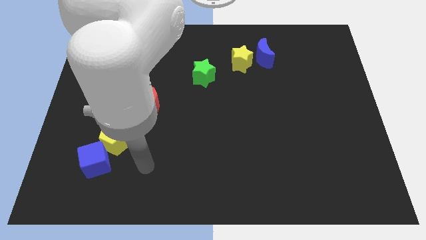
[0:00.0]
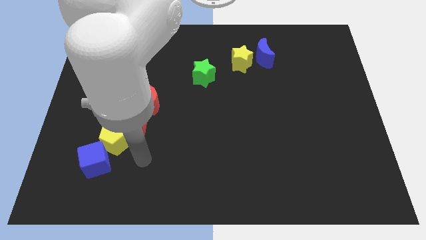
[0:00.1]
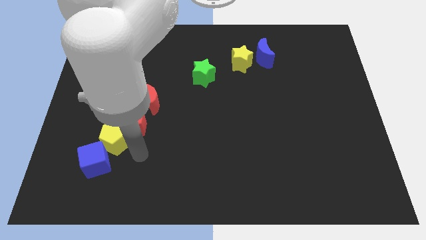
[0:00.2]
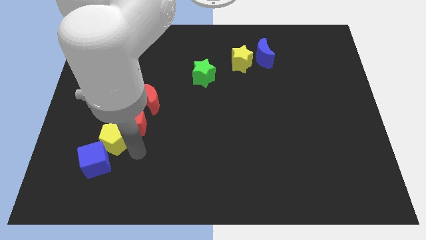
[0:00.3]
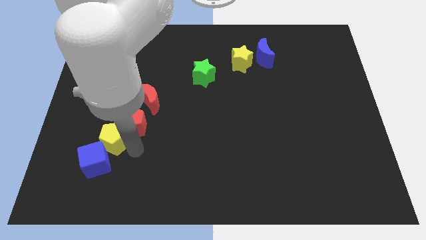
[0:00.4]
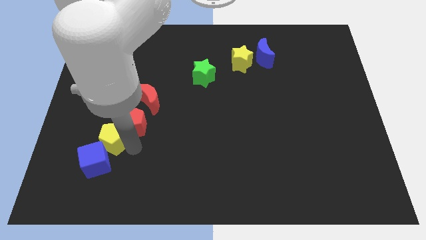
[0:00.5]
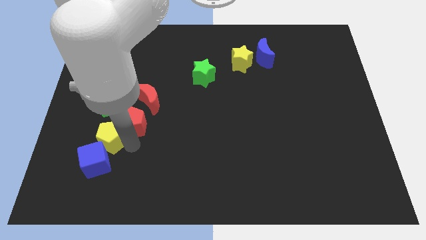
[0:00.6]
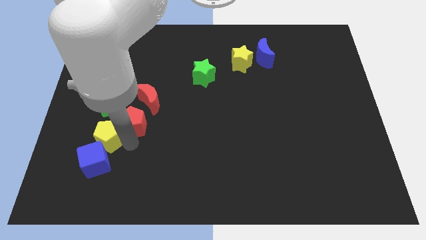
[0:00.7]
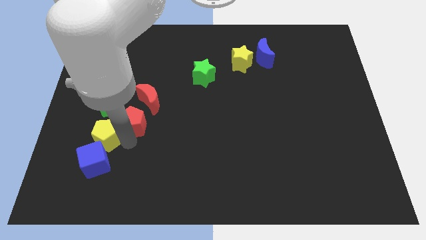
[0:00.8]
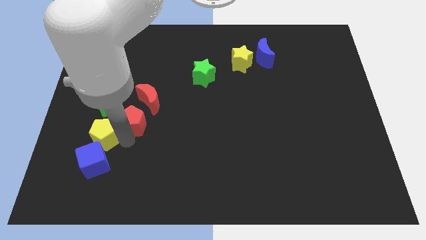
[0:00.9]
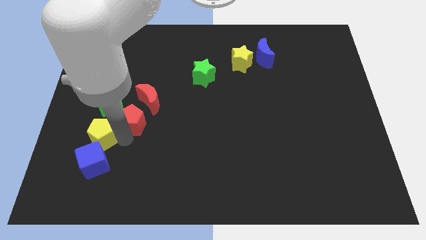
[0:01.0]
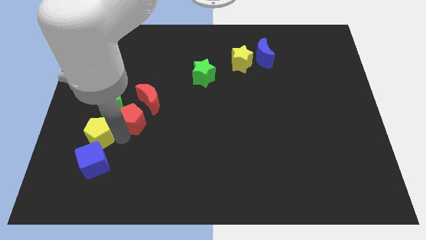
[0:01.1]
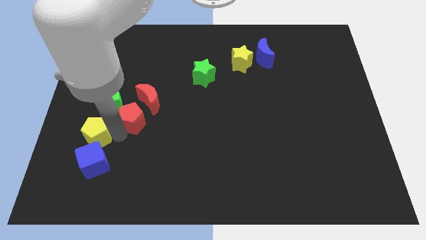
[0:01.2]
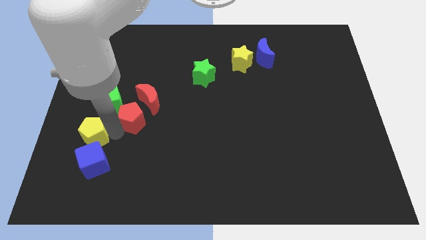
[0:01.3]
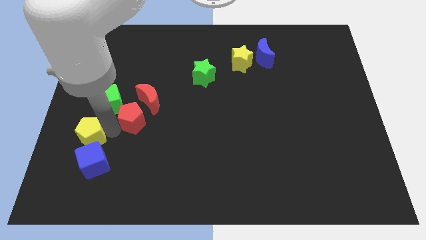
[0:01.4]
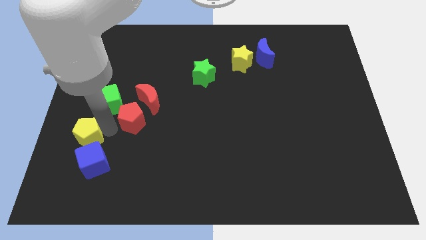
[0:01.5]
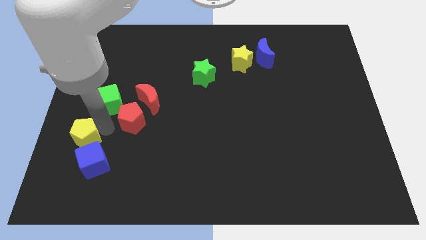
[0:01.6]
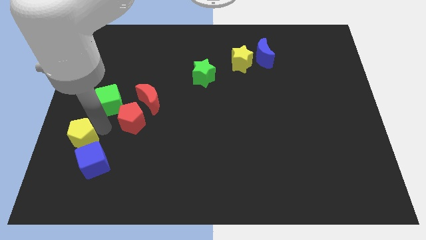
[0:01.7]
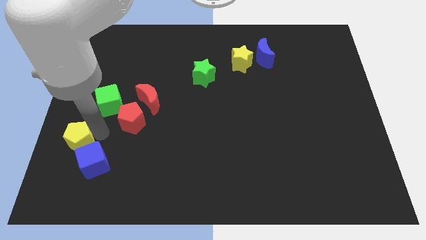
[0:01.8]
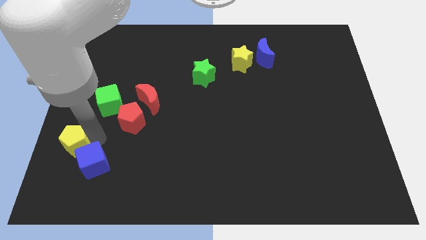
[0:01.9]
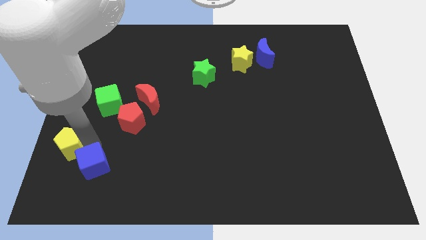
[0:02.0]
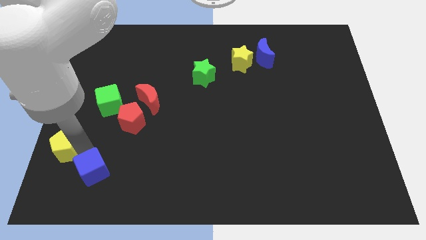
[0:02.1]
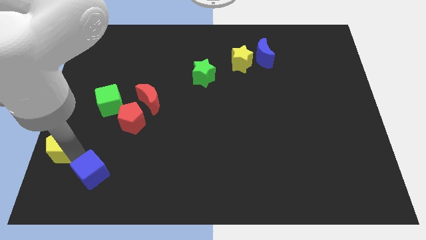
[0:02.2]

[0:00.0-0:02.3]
move the yellow pentagon away from the red pentagon and blue cube

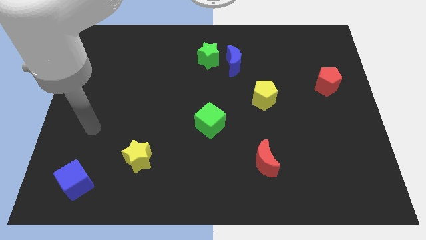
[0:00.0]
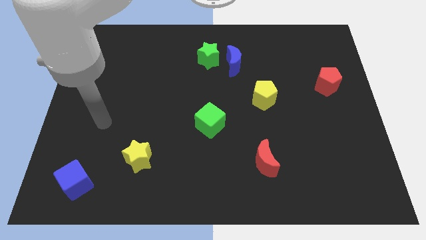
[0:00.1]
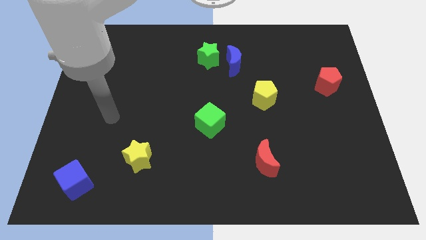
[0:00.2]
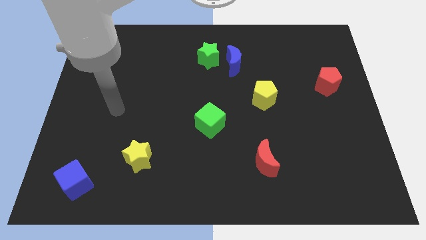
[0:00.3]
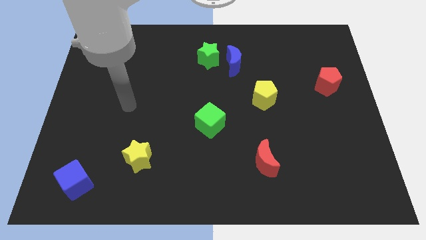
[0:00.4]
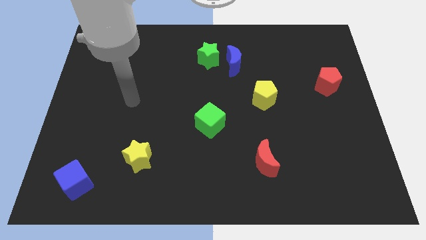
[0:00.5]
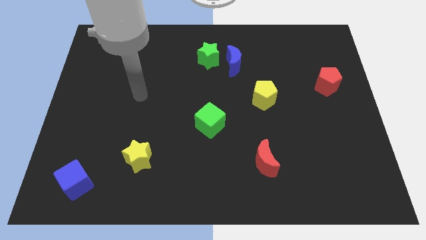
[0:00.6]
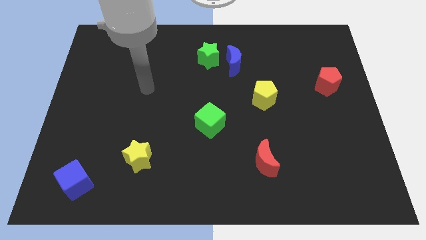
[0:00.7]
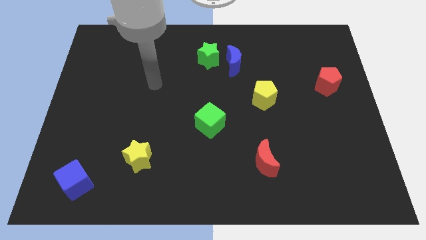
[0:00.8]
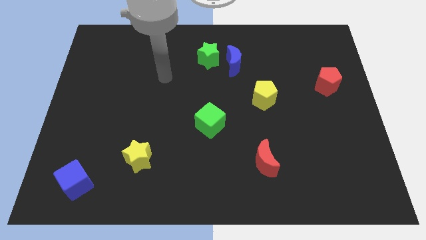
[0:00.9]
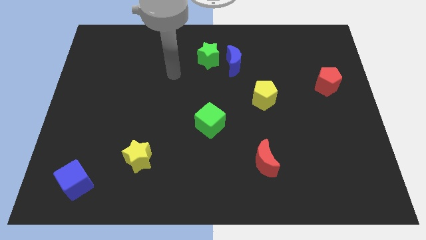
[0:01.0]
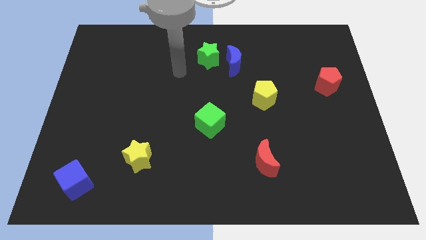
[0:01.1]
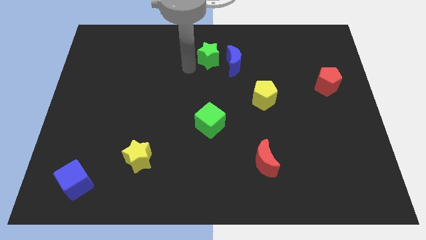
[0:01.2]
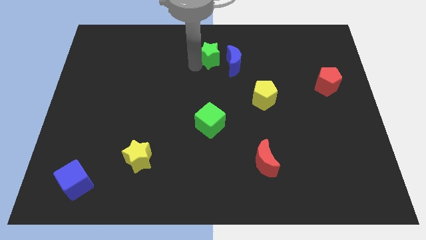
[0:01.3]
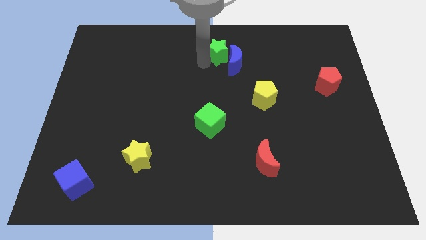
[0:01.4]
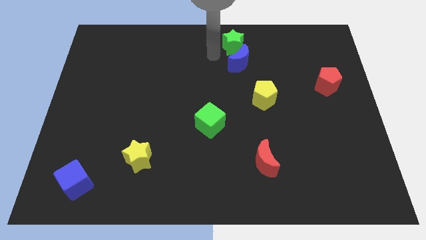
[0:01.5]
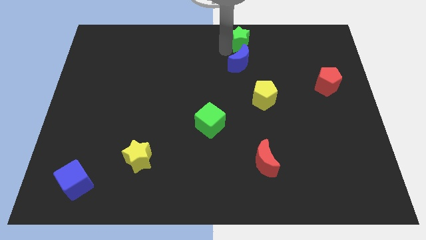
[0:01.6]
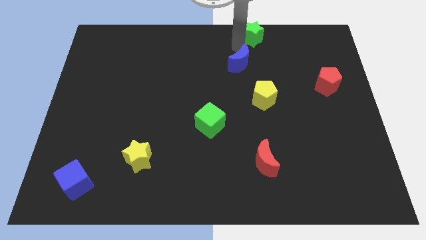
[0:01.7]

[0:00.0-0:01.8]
pull the blue moon apart from the green star

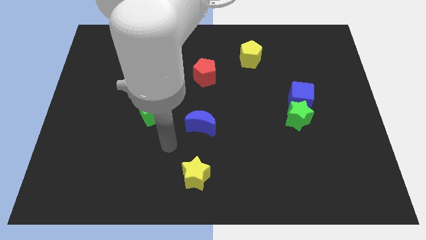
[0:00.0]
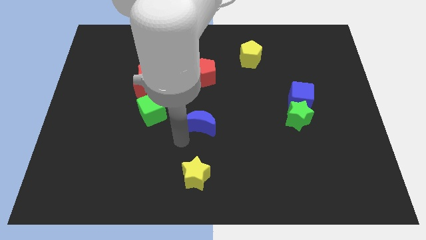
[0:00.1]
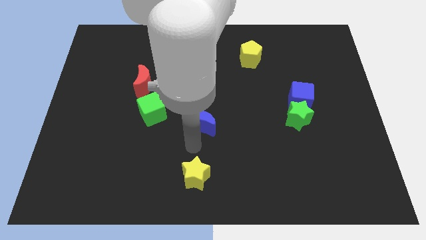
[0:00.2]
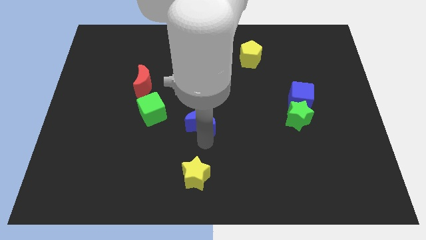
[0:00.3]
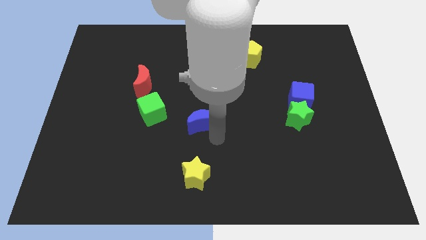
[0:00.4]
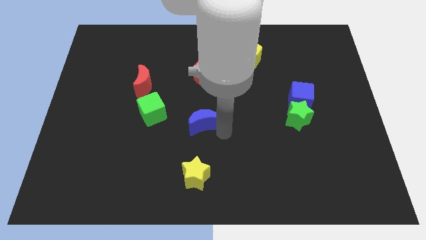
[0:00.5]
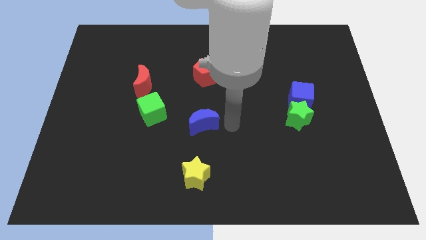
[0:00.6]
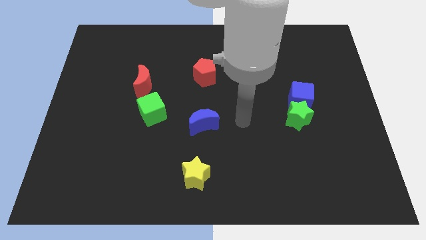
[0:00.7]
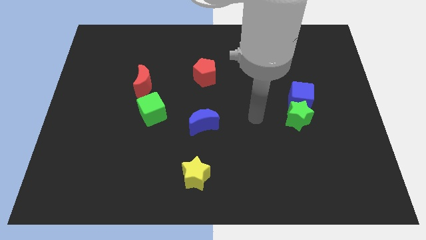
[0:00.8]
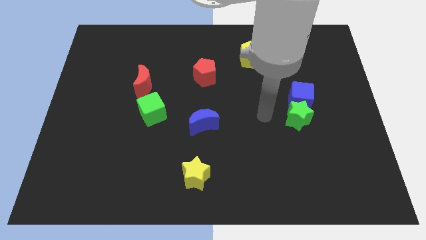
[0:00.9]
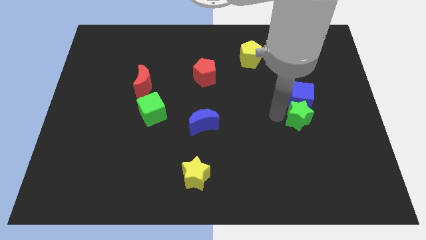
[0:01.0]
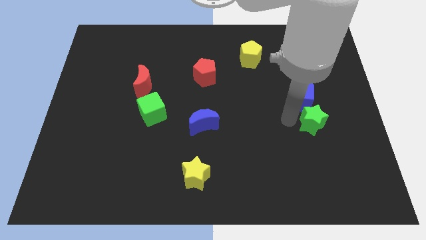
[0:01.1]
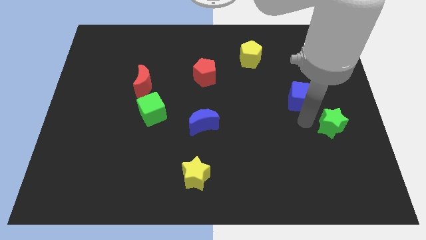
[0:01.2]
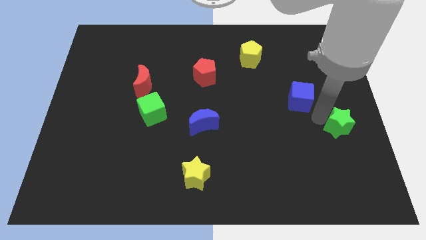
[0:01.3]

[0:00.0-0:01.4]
move the blue cube away from the green star

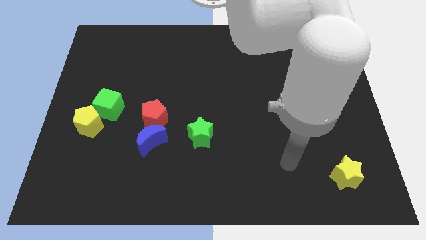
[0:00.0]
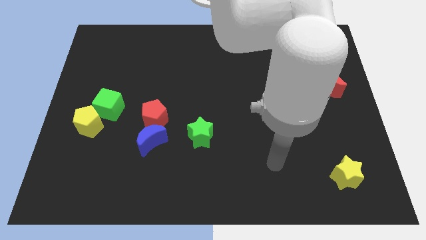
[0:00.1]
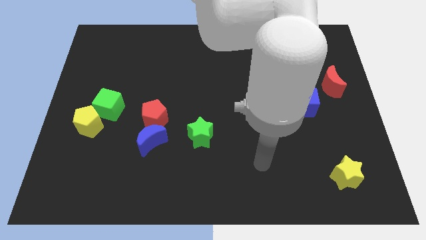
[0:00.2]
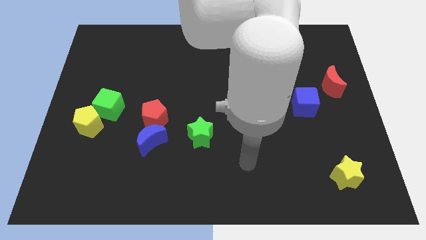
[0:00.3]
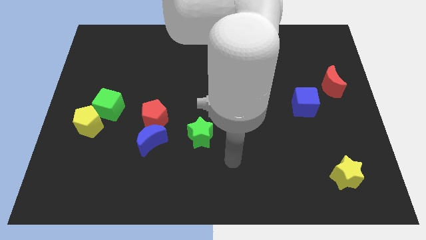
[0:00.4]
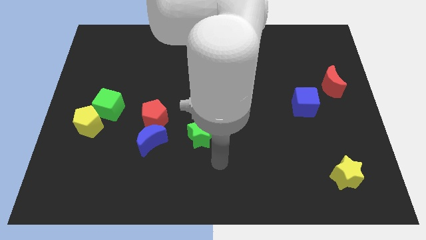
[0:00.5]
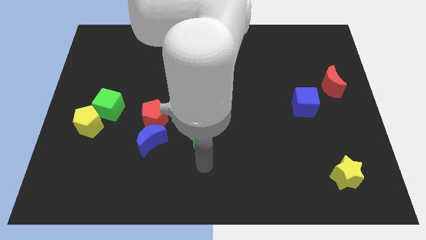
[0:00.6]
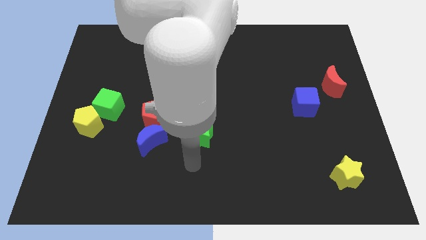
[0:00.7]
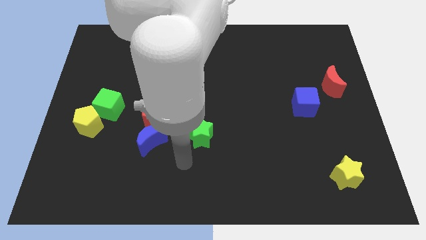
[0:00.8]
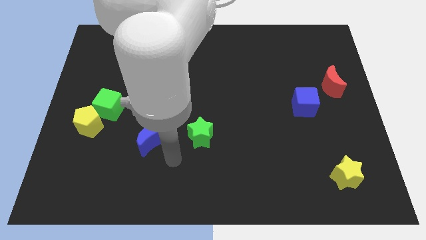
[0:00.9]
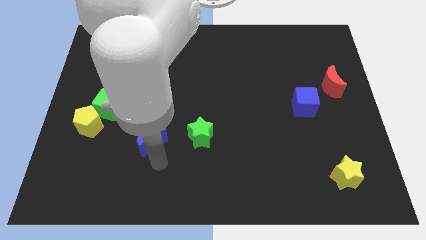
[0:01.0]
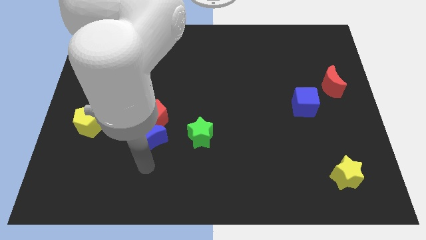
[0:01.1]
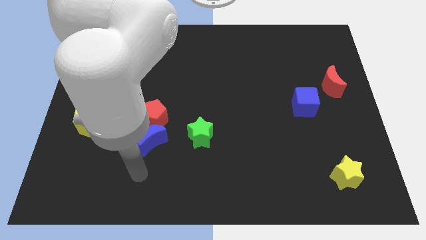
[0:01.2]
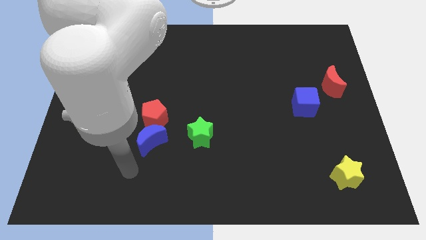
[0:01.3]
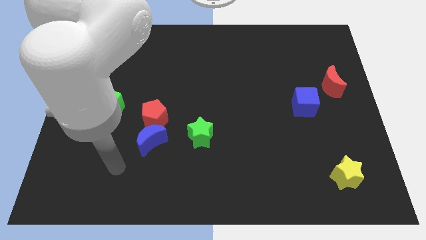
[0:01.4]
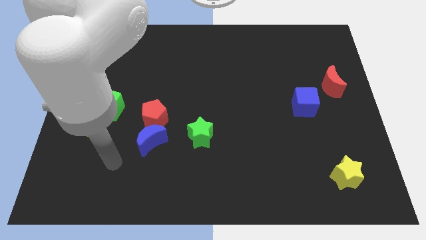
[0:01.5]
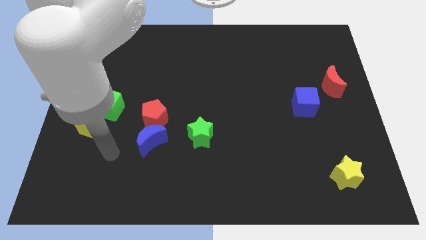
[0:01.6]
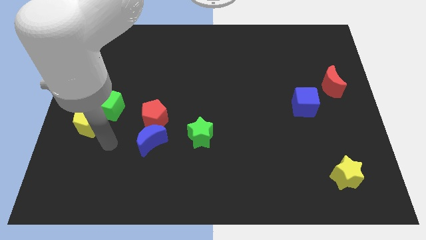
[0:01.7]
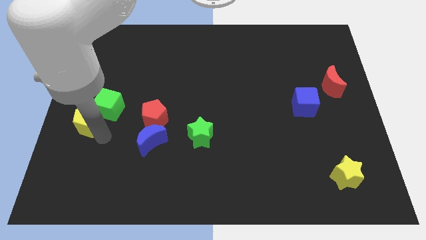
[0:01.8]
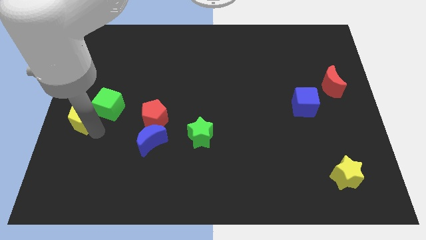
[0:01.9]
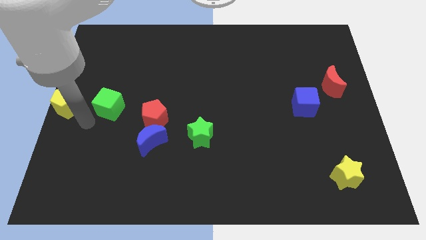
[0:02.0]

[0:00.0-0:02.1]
separate the green cube from the yellow pentagon

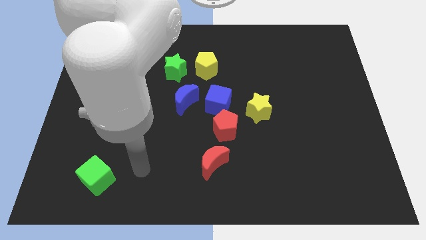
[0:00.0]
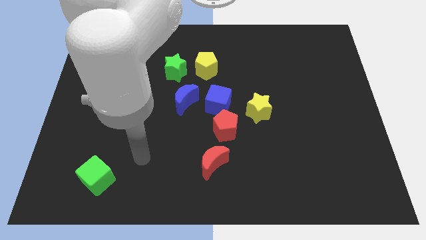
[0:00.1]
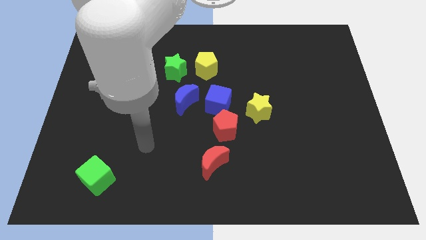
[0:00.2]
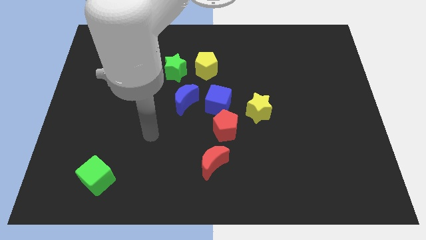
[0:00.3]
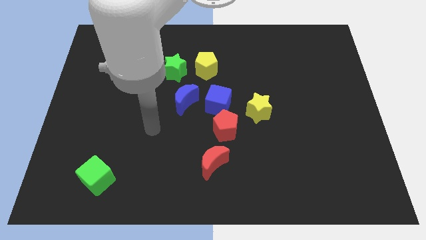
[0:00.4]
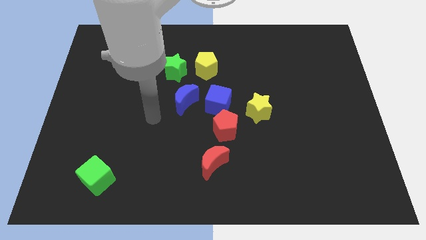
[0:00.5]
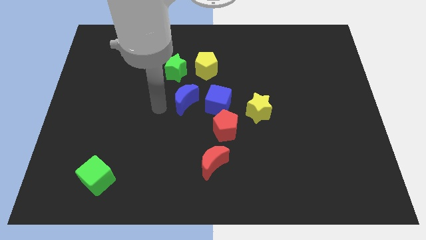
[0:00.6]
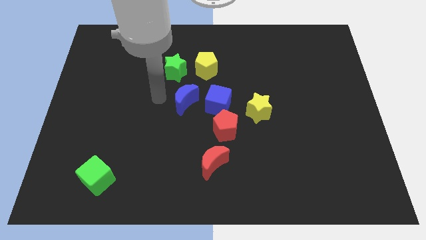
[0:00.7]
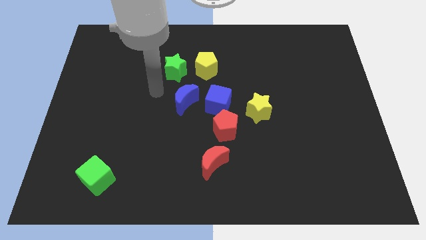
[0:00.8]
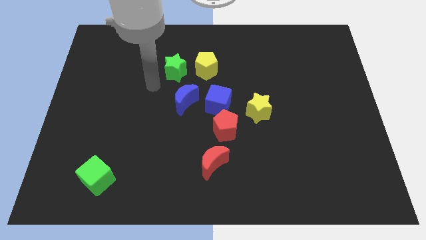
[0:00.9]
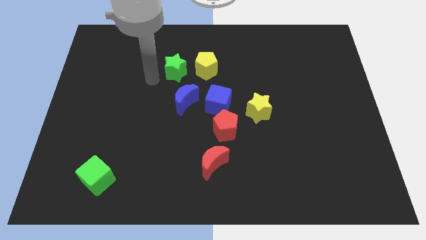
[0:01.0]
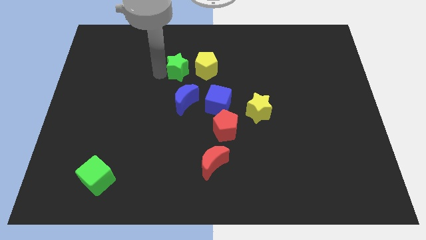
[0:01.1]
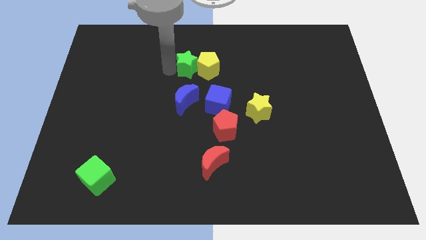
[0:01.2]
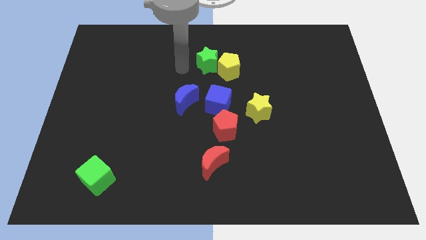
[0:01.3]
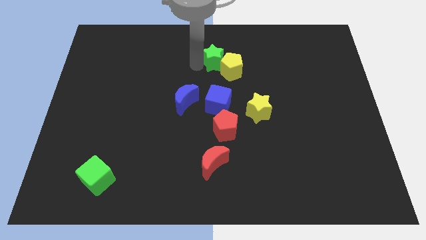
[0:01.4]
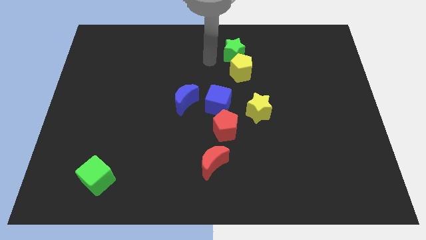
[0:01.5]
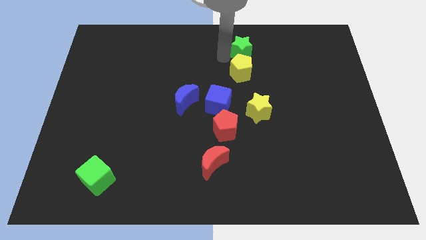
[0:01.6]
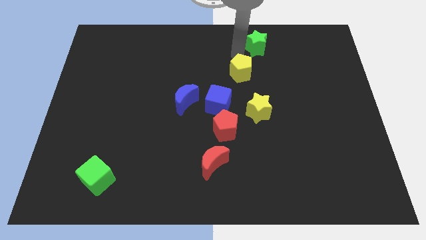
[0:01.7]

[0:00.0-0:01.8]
separate the yellow pentagon from the green star
